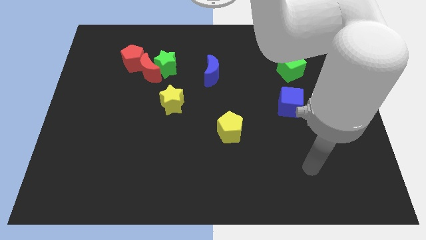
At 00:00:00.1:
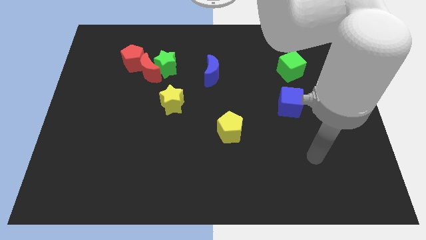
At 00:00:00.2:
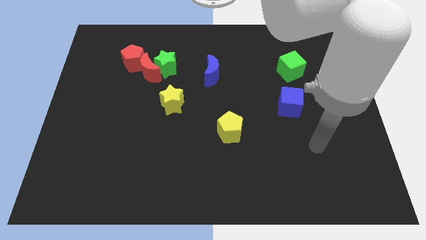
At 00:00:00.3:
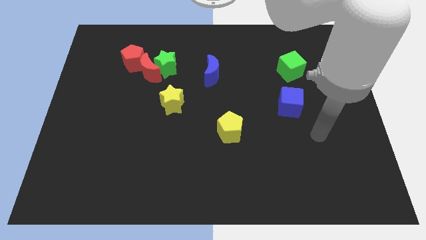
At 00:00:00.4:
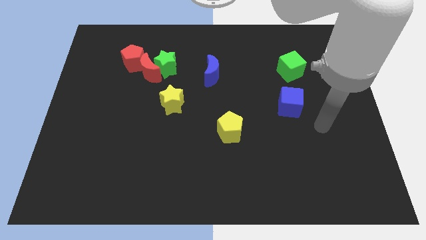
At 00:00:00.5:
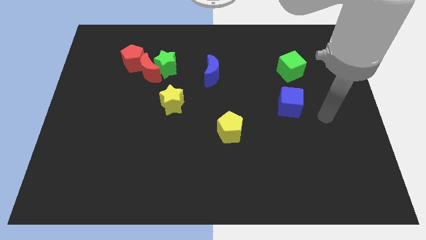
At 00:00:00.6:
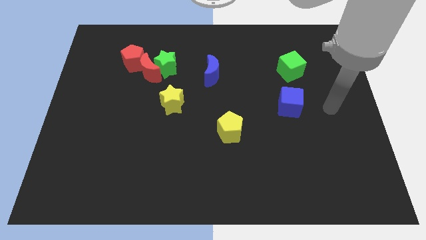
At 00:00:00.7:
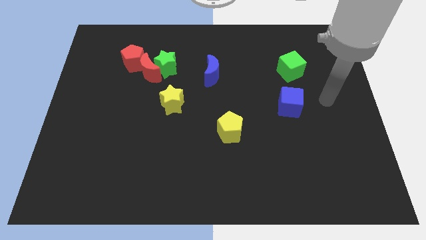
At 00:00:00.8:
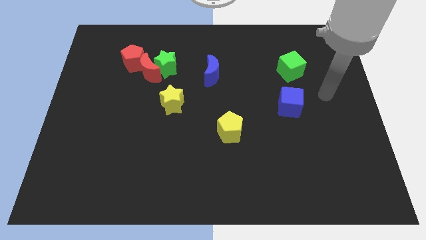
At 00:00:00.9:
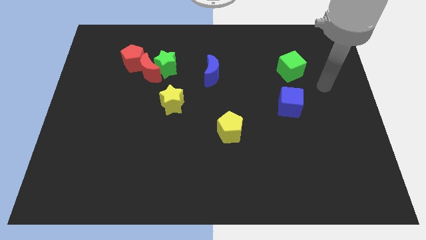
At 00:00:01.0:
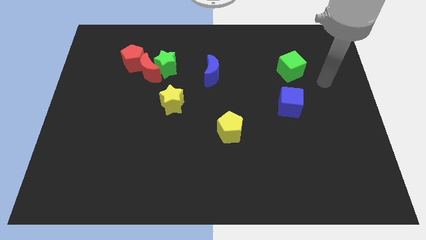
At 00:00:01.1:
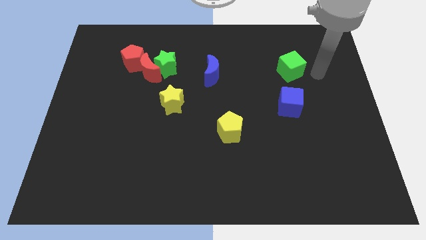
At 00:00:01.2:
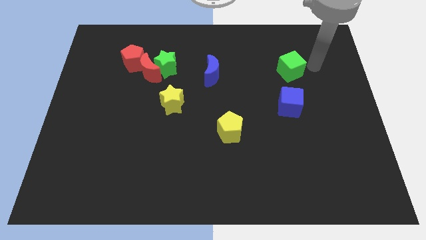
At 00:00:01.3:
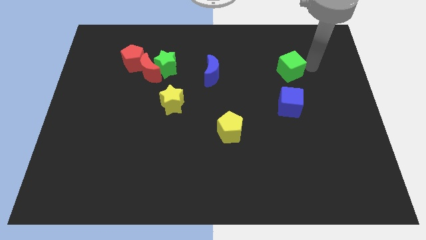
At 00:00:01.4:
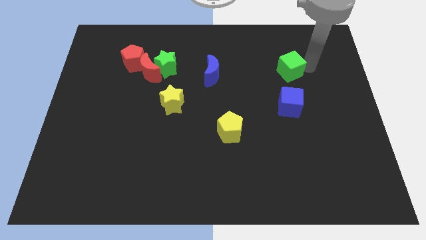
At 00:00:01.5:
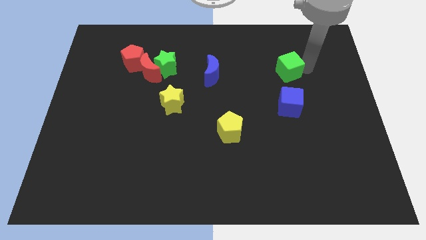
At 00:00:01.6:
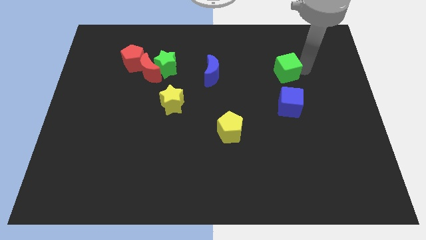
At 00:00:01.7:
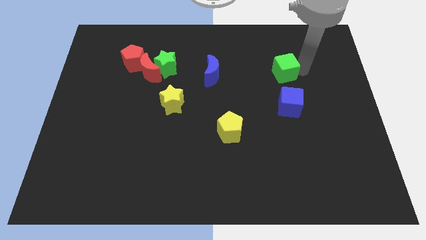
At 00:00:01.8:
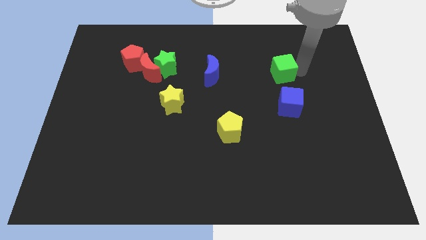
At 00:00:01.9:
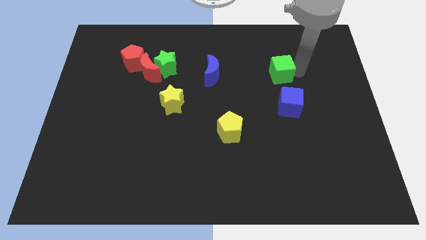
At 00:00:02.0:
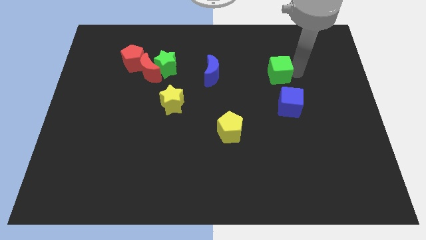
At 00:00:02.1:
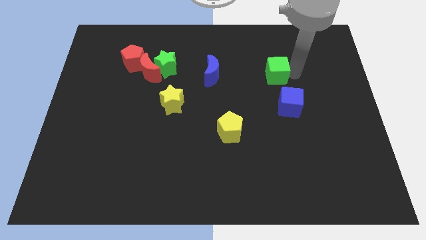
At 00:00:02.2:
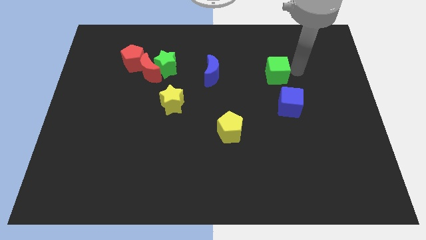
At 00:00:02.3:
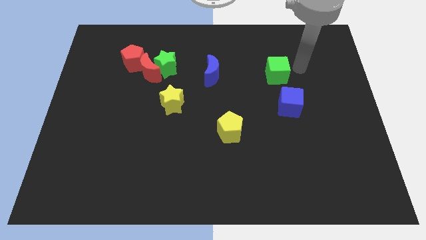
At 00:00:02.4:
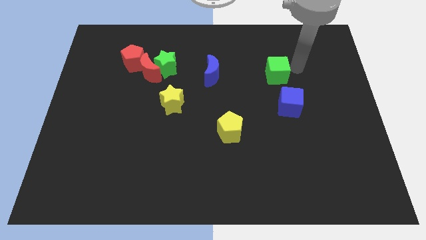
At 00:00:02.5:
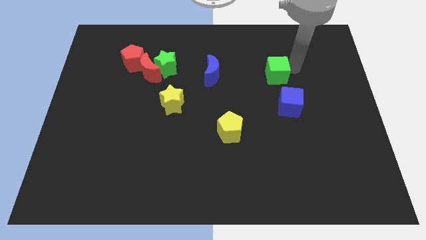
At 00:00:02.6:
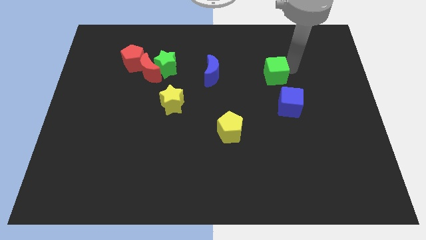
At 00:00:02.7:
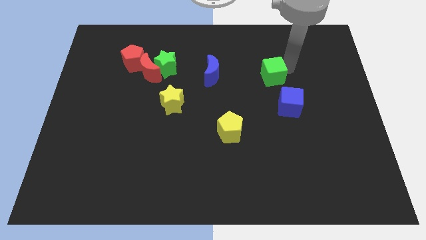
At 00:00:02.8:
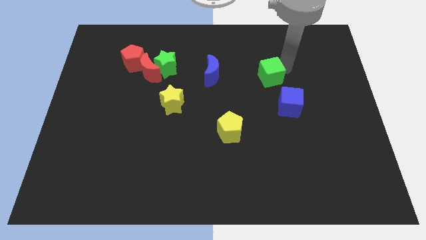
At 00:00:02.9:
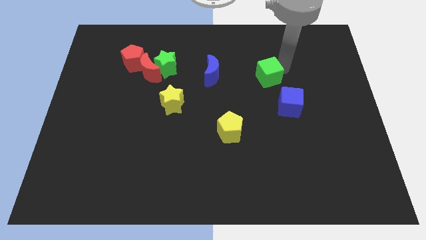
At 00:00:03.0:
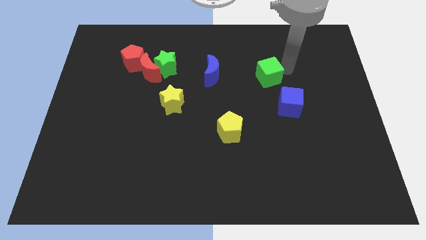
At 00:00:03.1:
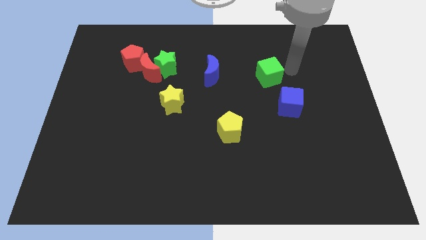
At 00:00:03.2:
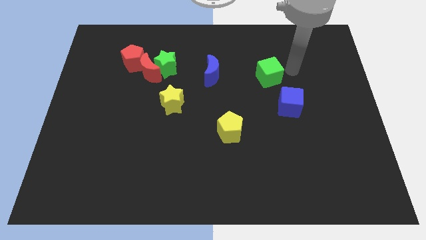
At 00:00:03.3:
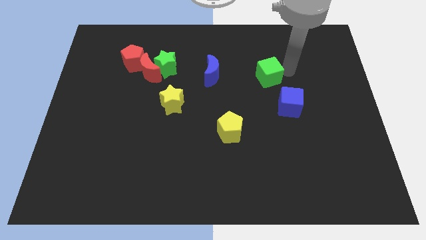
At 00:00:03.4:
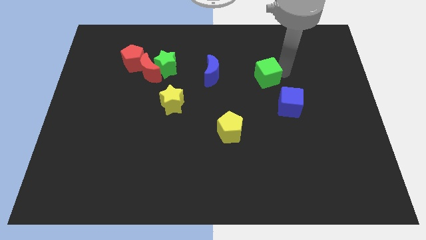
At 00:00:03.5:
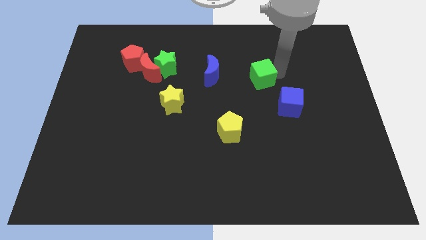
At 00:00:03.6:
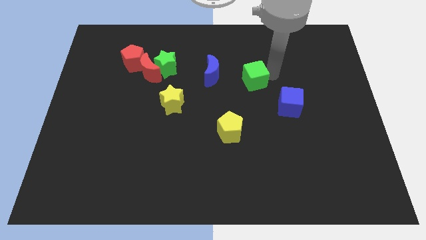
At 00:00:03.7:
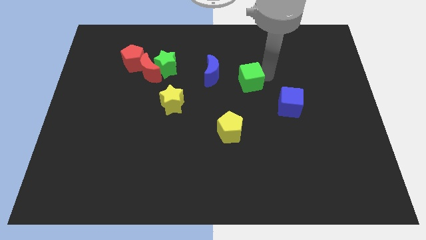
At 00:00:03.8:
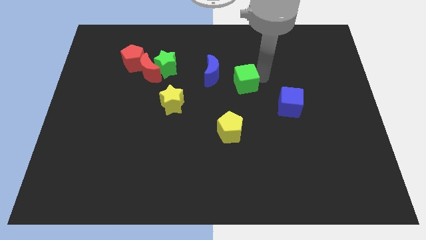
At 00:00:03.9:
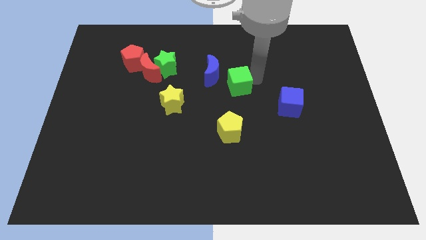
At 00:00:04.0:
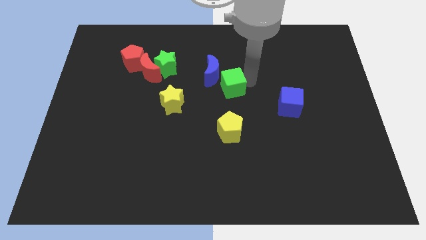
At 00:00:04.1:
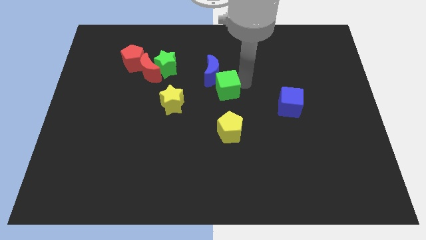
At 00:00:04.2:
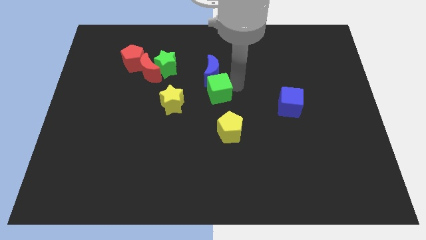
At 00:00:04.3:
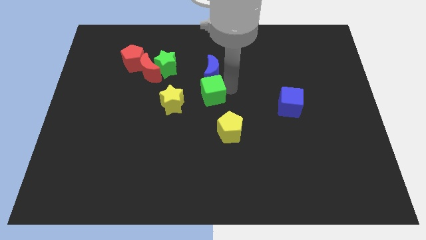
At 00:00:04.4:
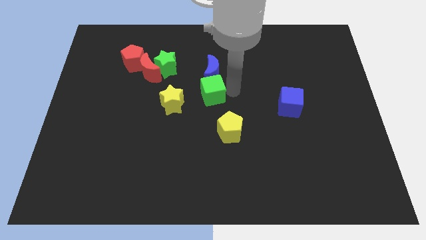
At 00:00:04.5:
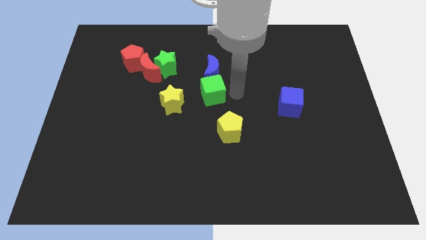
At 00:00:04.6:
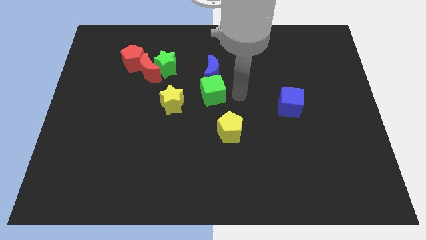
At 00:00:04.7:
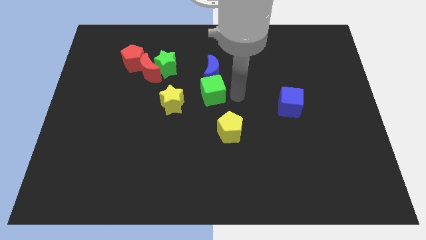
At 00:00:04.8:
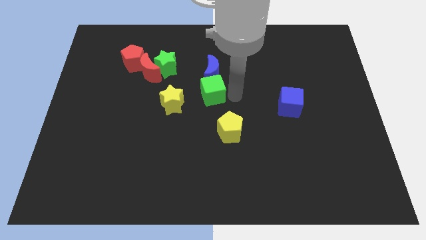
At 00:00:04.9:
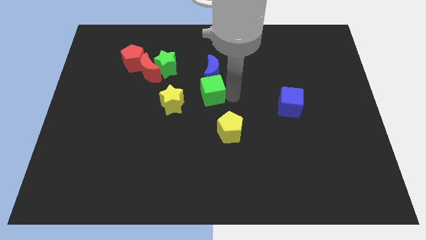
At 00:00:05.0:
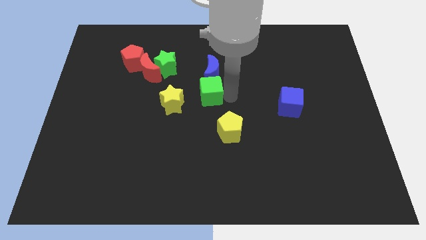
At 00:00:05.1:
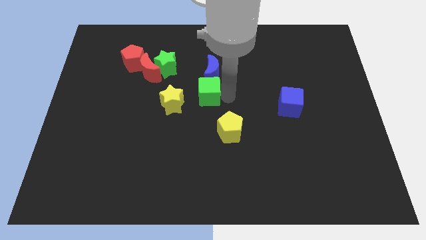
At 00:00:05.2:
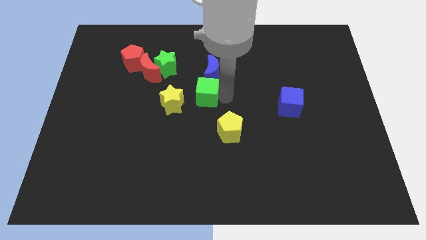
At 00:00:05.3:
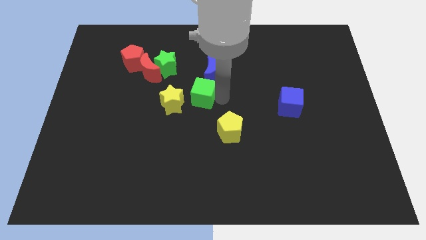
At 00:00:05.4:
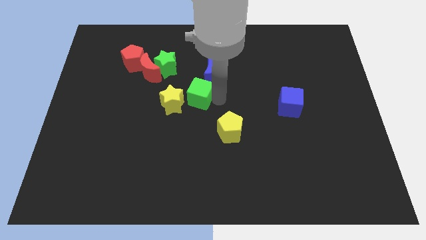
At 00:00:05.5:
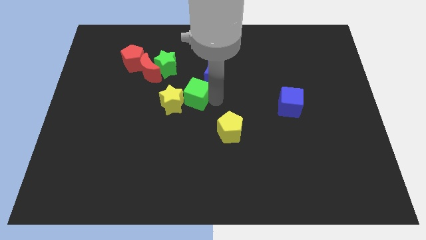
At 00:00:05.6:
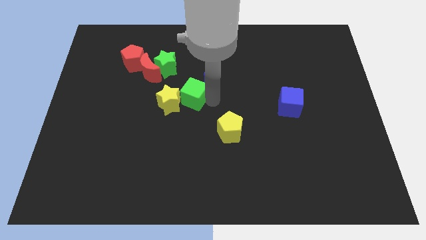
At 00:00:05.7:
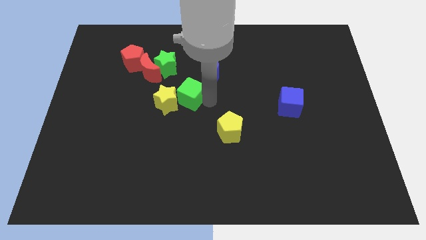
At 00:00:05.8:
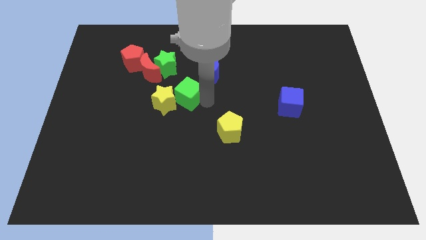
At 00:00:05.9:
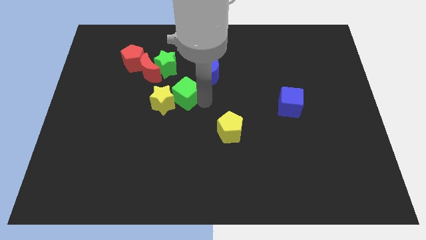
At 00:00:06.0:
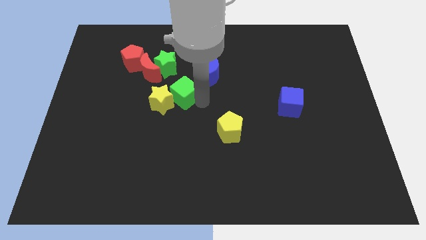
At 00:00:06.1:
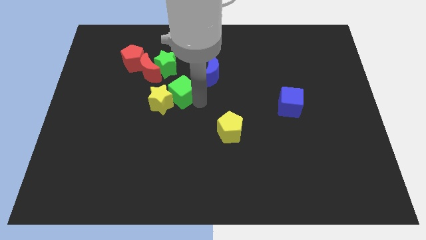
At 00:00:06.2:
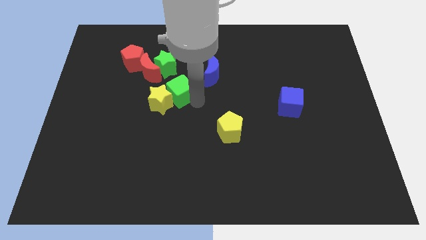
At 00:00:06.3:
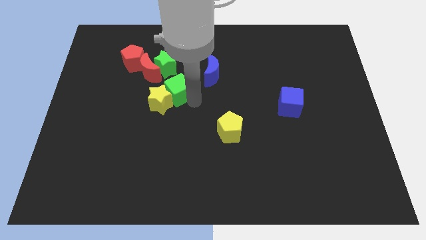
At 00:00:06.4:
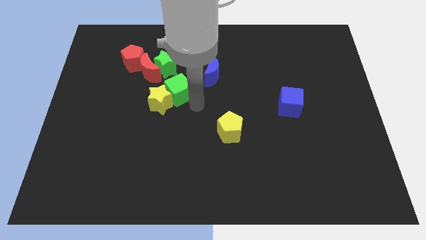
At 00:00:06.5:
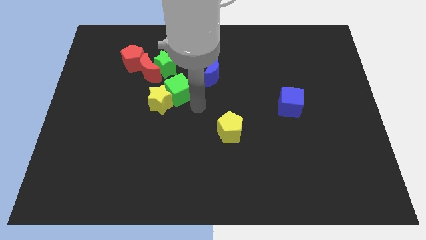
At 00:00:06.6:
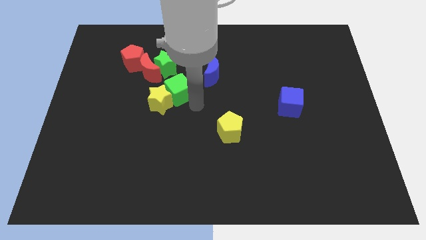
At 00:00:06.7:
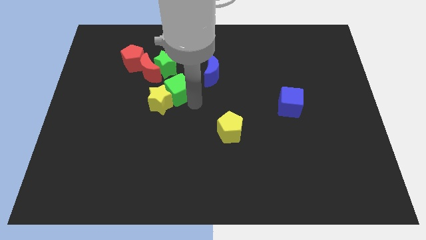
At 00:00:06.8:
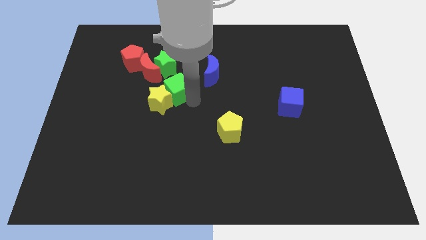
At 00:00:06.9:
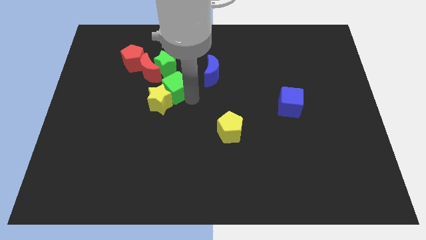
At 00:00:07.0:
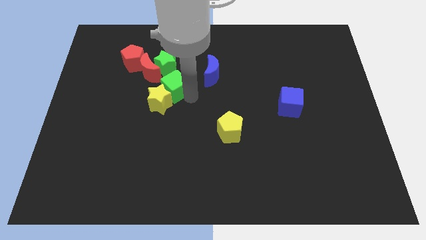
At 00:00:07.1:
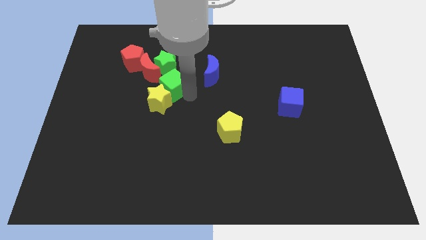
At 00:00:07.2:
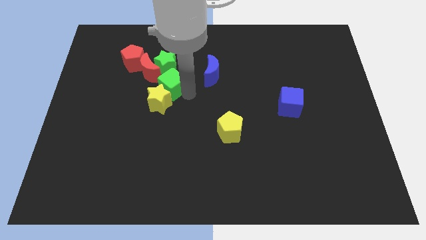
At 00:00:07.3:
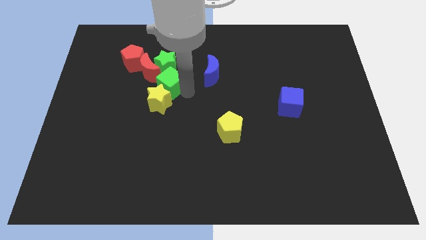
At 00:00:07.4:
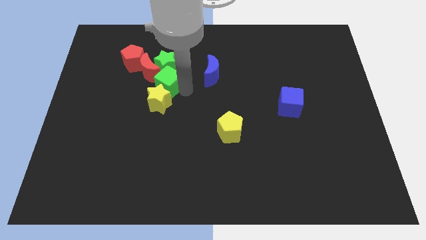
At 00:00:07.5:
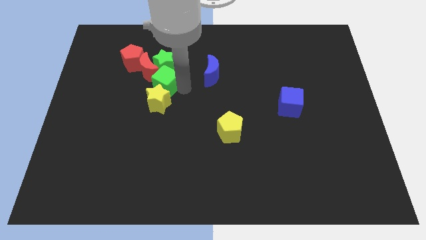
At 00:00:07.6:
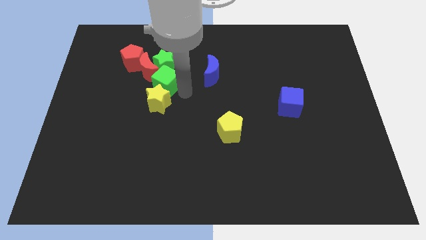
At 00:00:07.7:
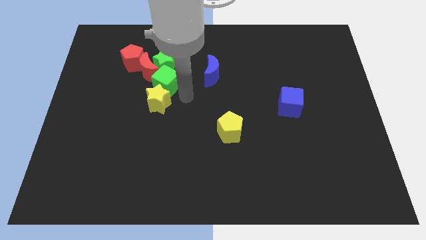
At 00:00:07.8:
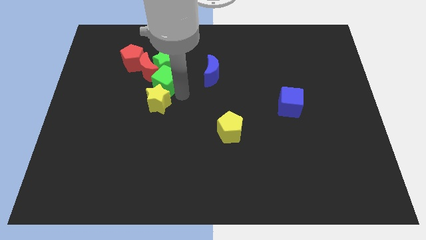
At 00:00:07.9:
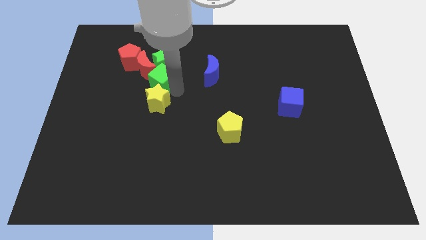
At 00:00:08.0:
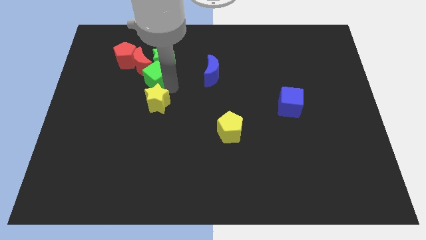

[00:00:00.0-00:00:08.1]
slide the green cube towards the red moon
